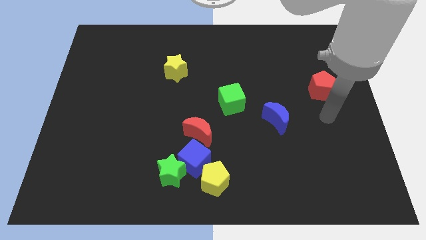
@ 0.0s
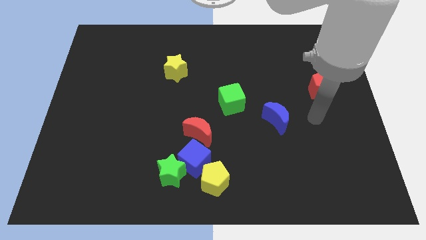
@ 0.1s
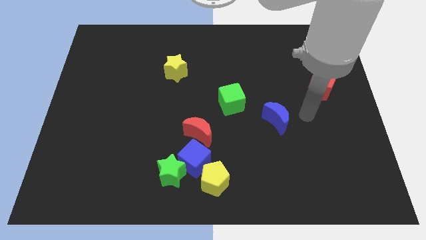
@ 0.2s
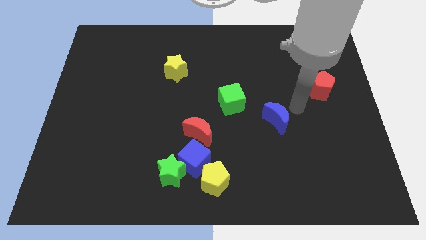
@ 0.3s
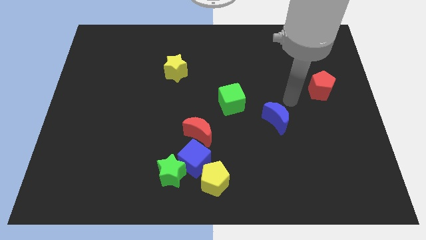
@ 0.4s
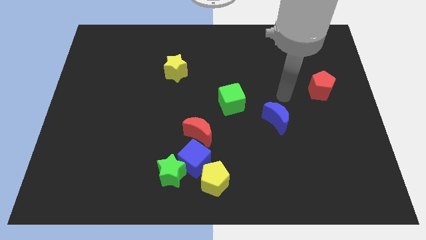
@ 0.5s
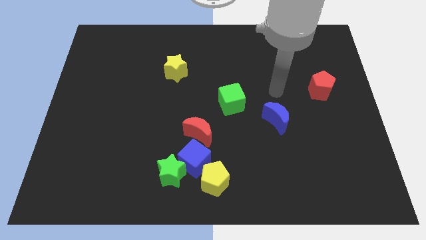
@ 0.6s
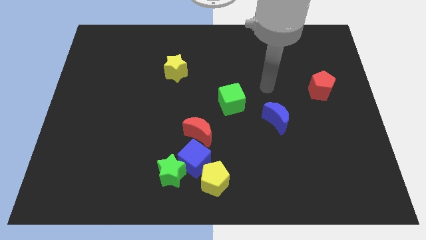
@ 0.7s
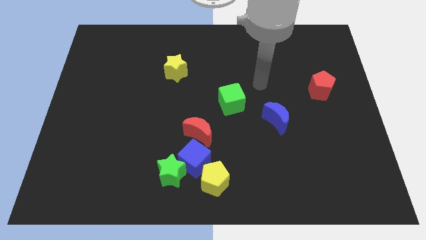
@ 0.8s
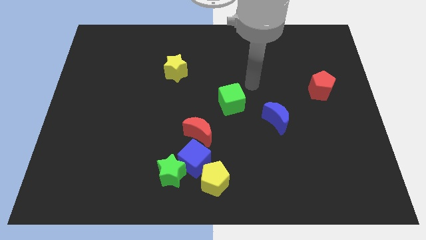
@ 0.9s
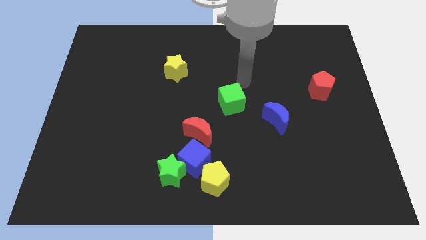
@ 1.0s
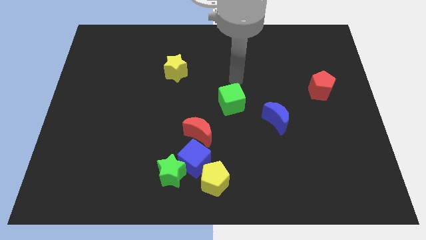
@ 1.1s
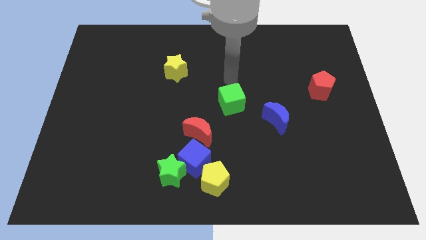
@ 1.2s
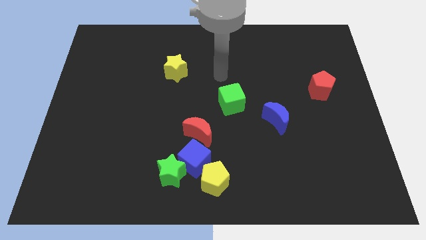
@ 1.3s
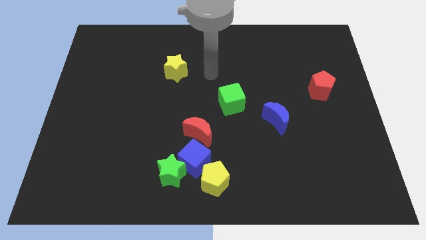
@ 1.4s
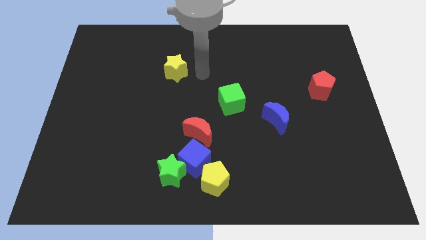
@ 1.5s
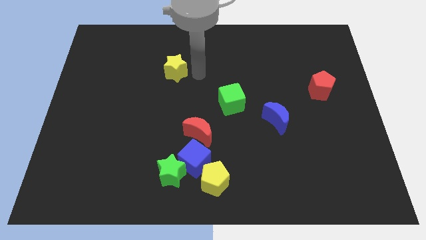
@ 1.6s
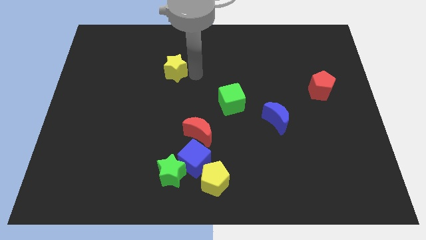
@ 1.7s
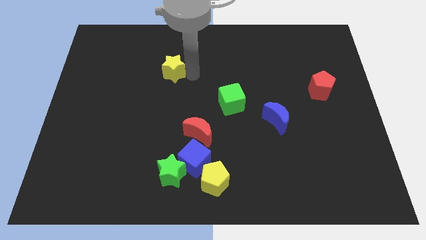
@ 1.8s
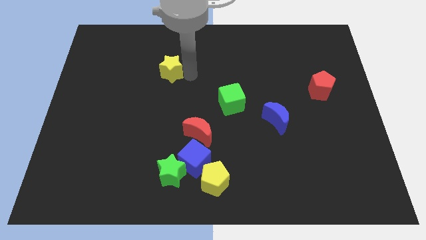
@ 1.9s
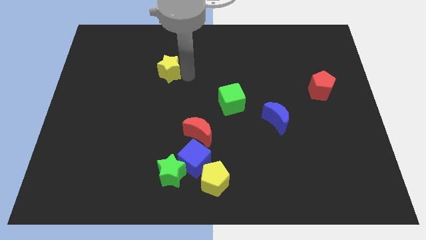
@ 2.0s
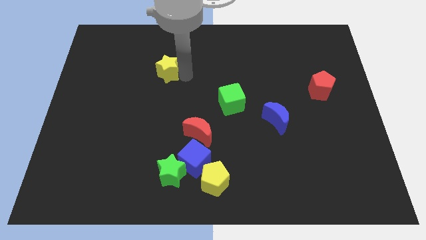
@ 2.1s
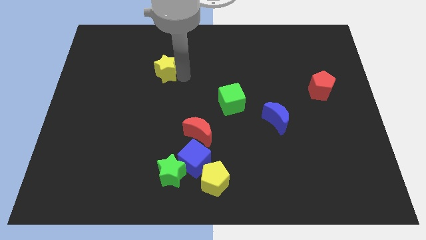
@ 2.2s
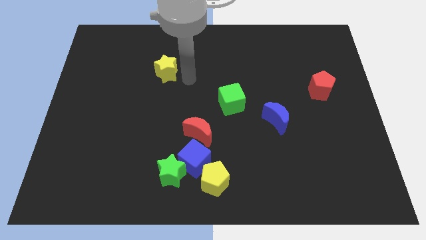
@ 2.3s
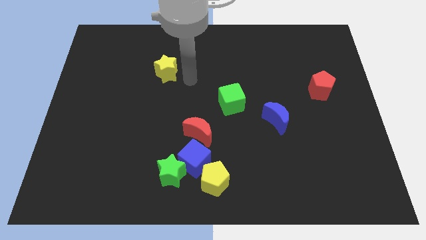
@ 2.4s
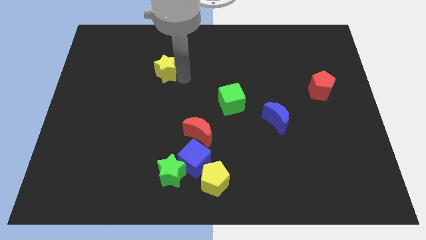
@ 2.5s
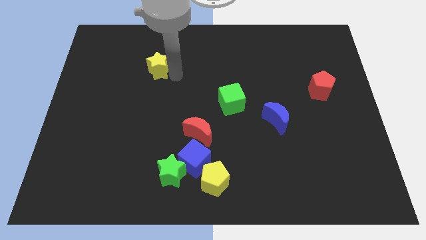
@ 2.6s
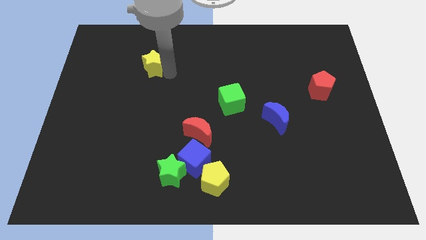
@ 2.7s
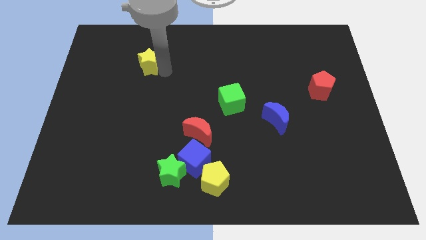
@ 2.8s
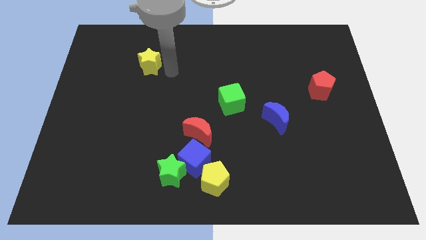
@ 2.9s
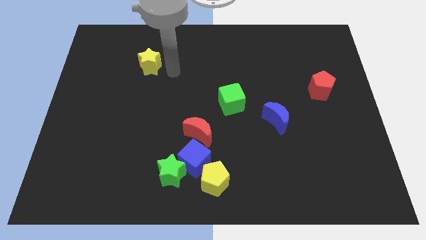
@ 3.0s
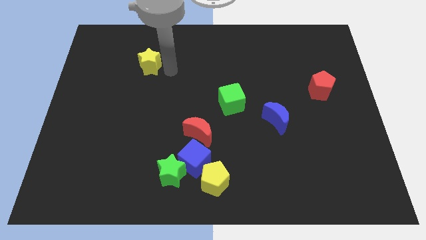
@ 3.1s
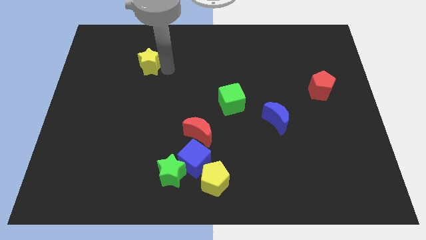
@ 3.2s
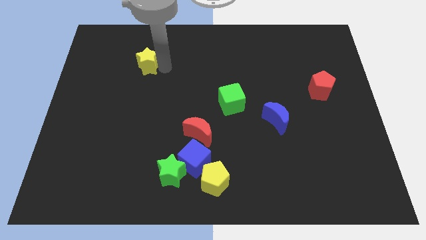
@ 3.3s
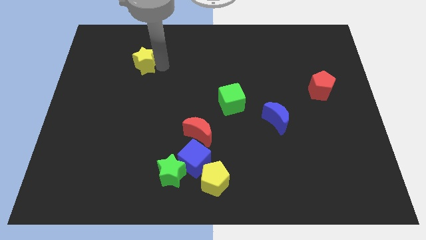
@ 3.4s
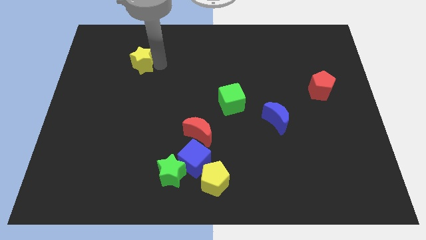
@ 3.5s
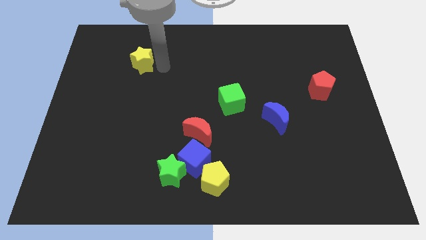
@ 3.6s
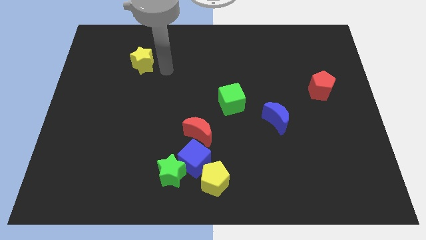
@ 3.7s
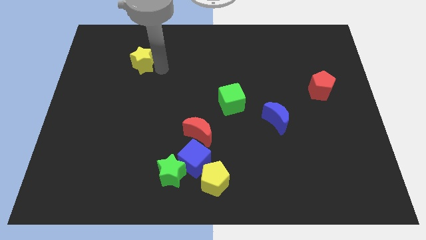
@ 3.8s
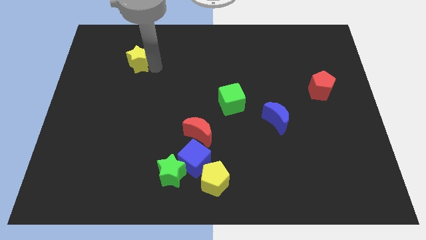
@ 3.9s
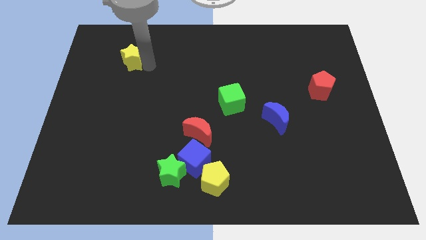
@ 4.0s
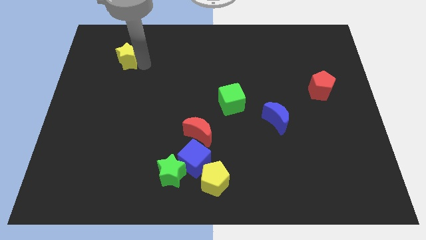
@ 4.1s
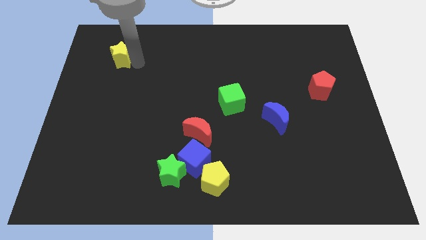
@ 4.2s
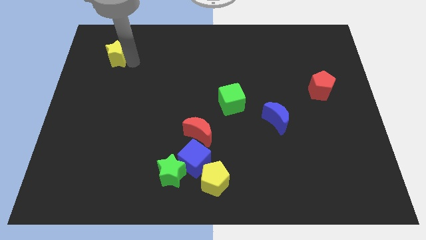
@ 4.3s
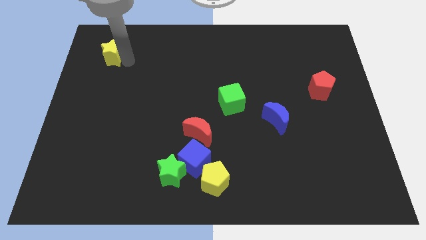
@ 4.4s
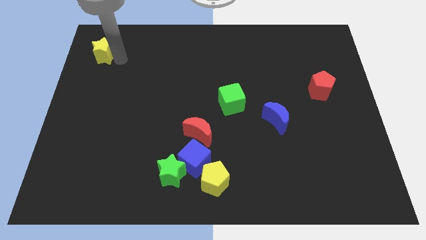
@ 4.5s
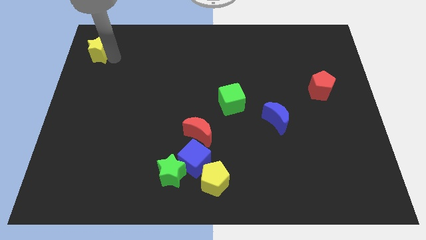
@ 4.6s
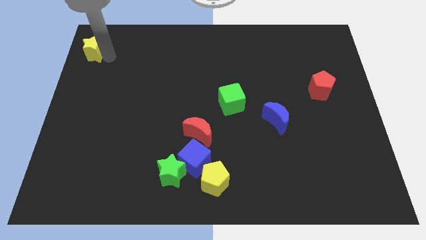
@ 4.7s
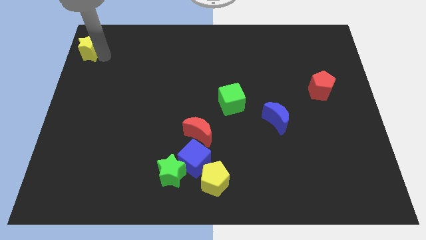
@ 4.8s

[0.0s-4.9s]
push the yellow star to the top left of the board

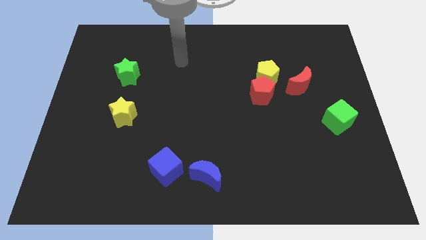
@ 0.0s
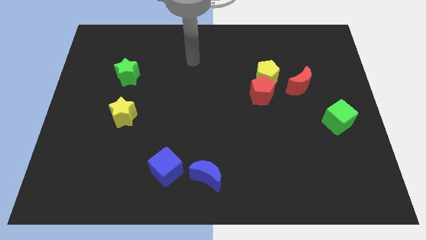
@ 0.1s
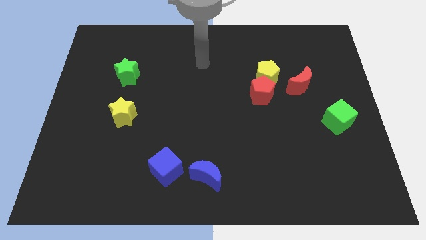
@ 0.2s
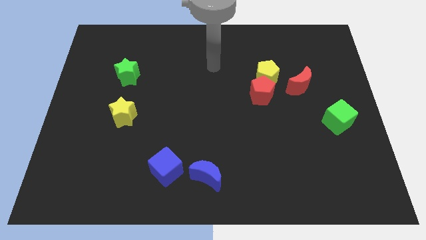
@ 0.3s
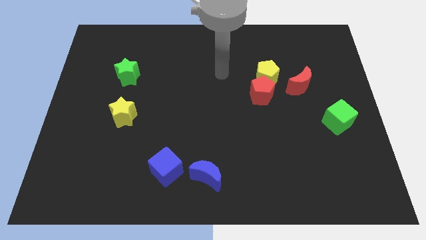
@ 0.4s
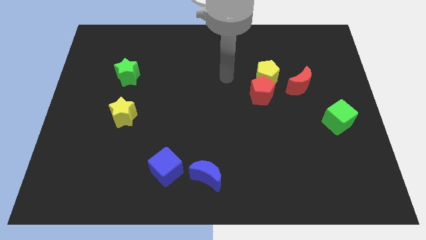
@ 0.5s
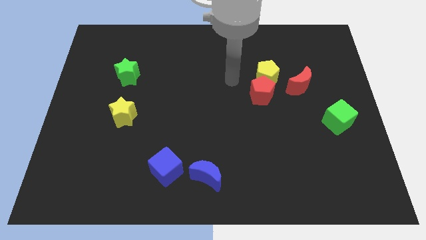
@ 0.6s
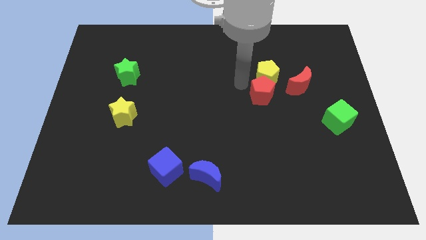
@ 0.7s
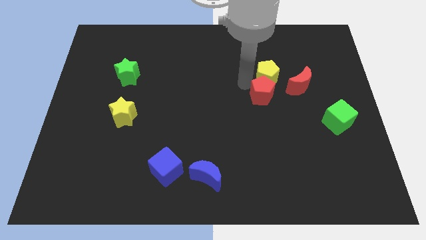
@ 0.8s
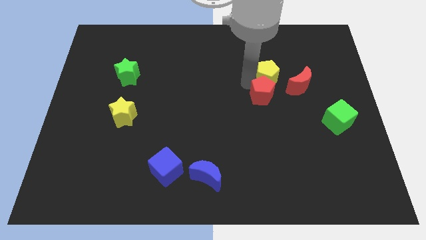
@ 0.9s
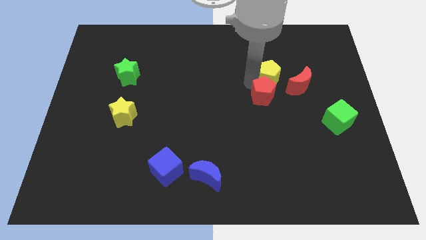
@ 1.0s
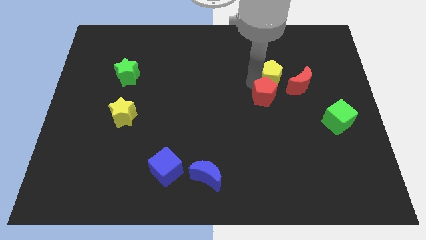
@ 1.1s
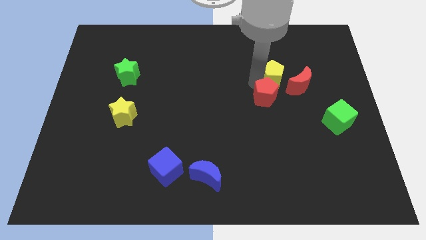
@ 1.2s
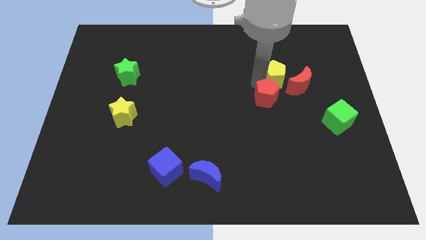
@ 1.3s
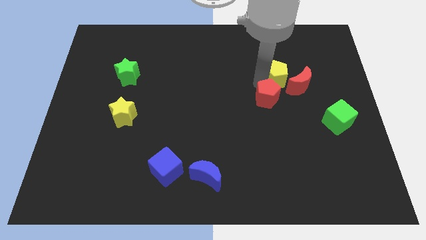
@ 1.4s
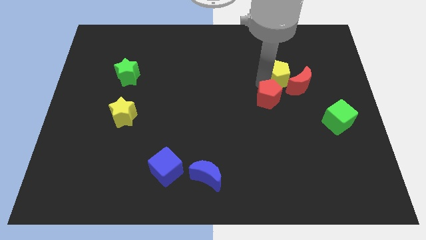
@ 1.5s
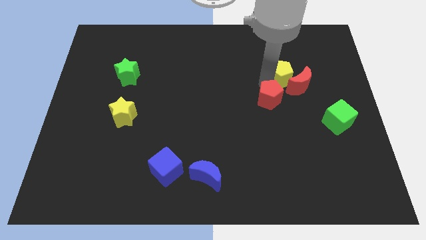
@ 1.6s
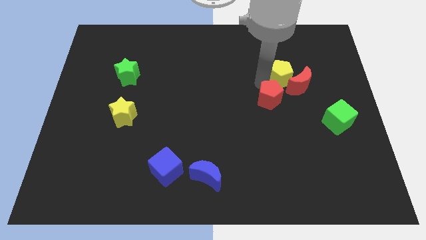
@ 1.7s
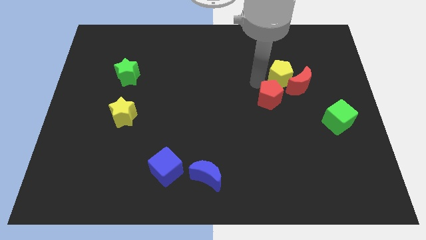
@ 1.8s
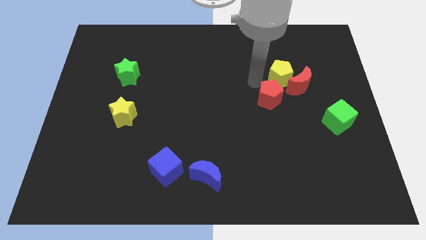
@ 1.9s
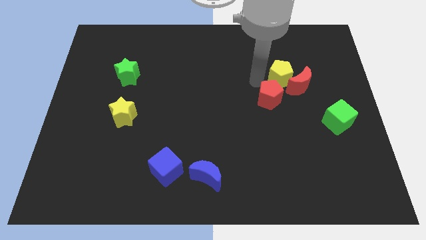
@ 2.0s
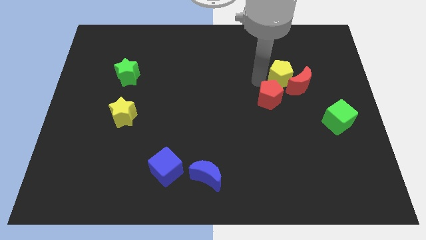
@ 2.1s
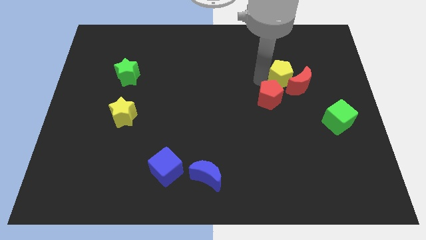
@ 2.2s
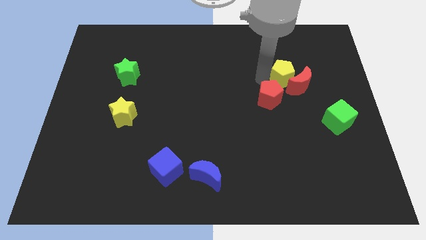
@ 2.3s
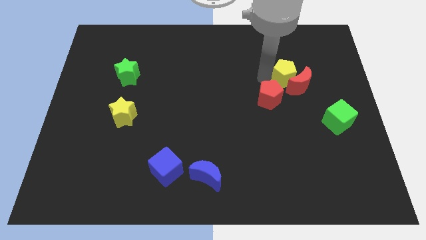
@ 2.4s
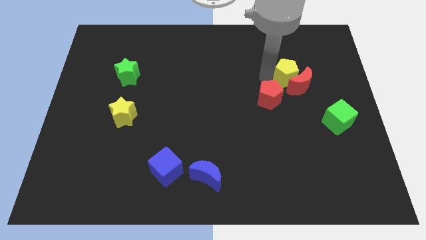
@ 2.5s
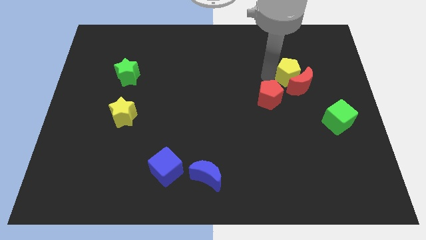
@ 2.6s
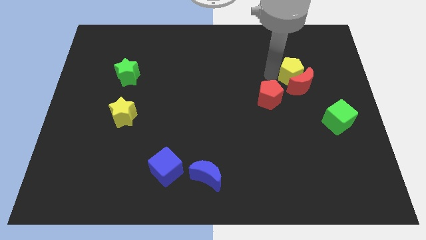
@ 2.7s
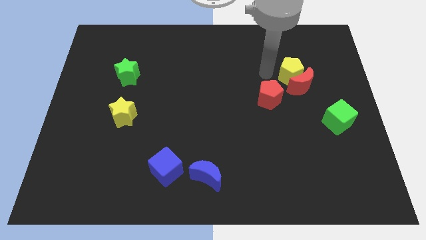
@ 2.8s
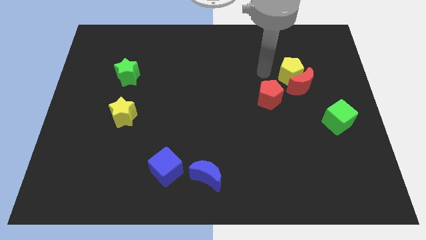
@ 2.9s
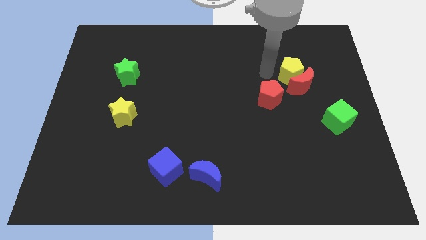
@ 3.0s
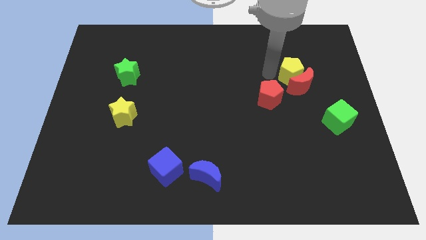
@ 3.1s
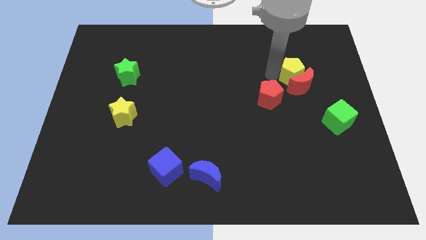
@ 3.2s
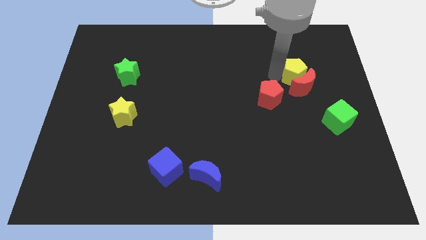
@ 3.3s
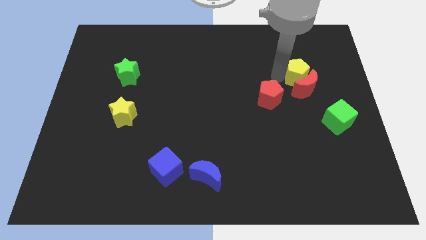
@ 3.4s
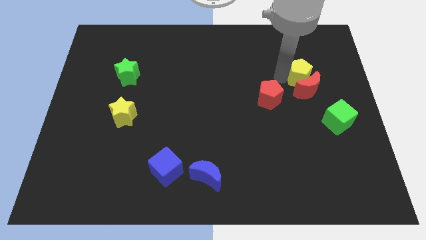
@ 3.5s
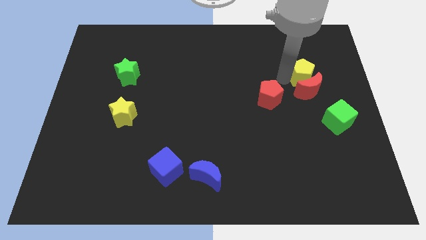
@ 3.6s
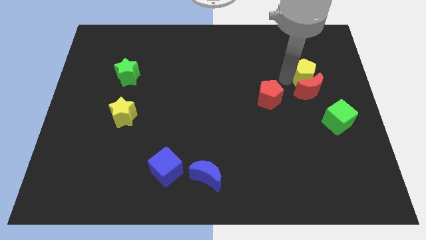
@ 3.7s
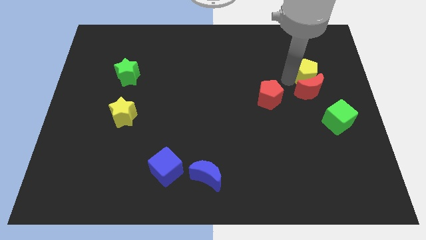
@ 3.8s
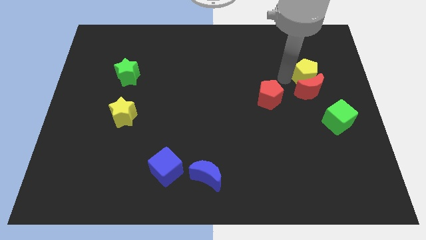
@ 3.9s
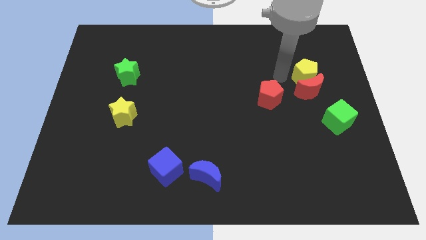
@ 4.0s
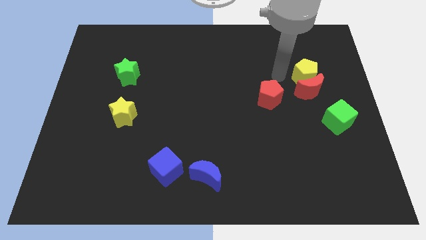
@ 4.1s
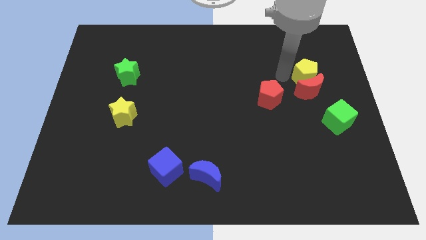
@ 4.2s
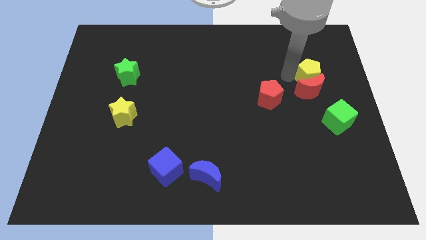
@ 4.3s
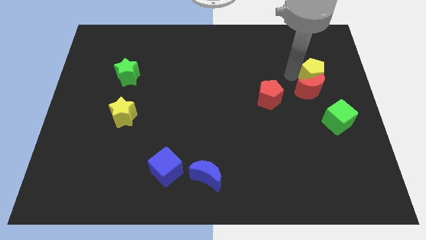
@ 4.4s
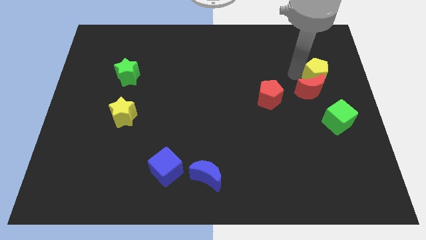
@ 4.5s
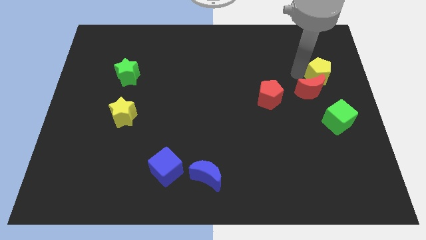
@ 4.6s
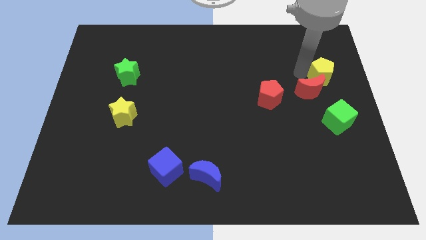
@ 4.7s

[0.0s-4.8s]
move the yellow pentagon to the right side
